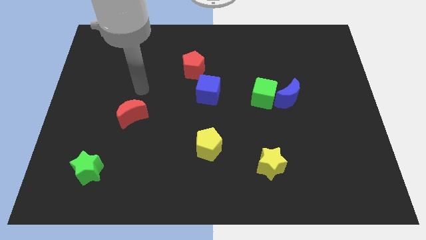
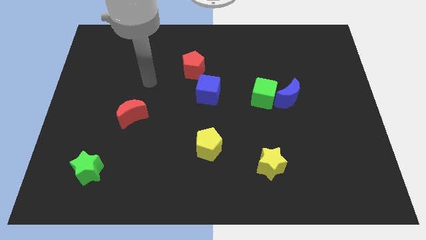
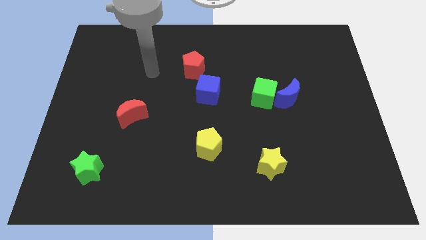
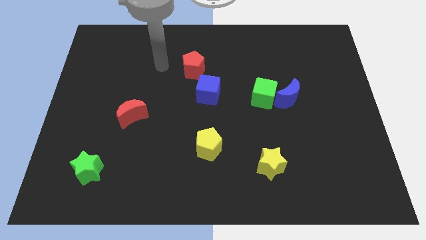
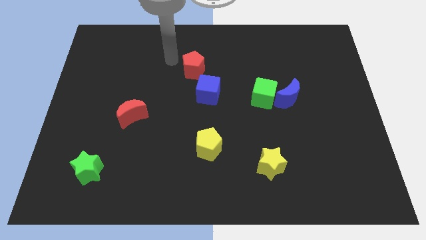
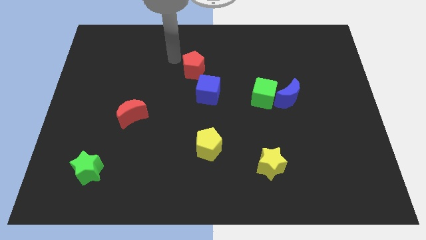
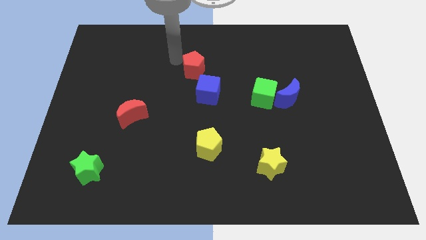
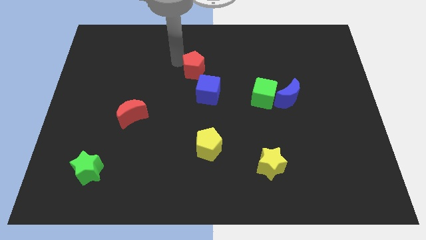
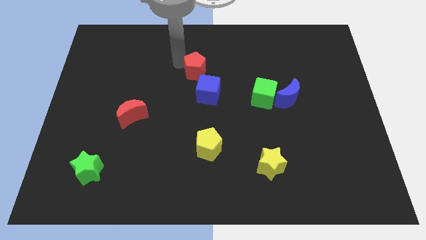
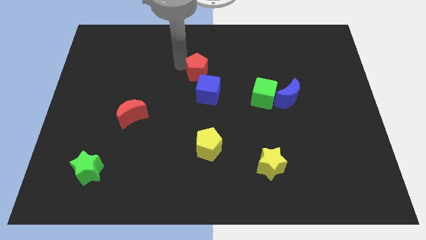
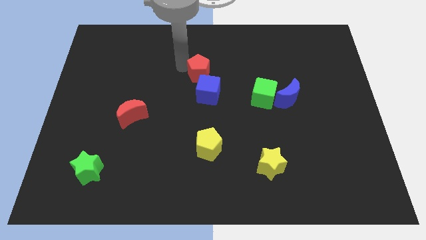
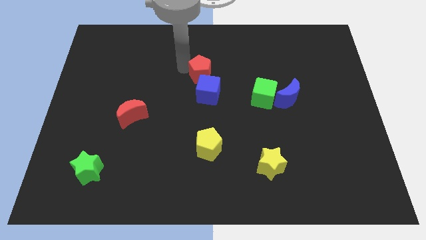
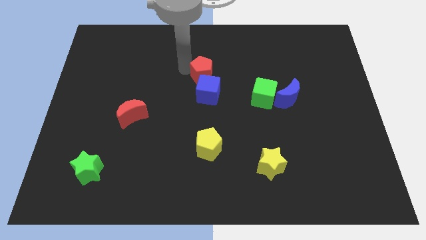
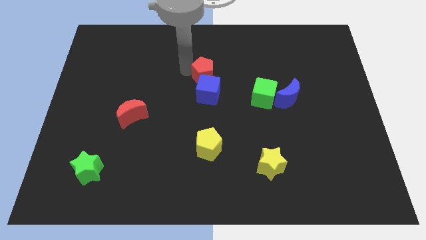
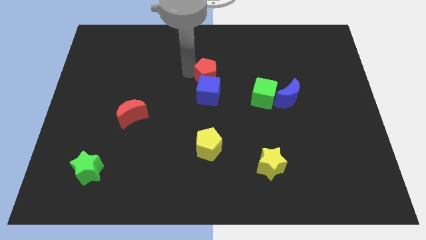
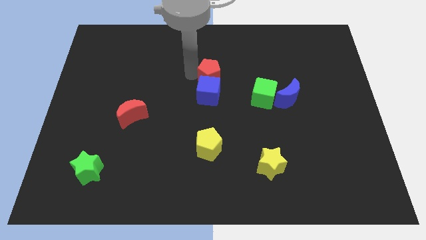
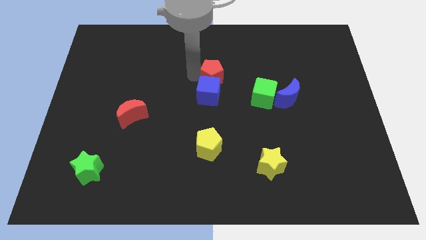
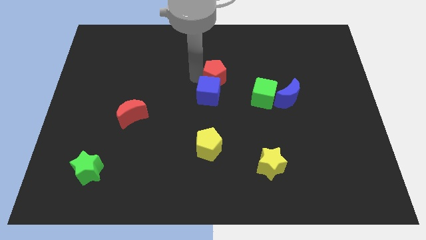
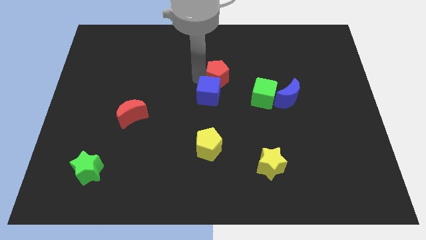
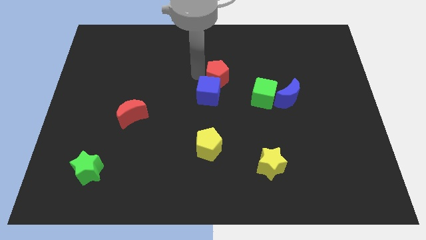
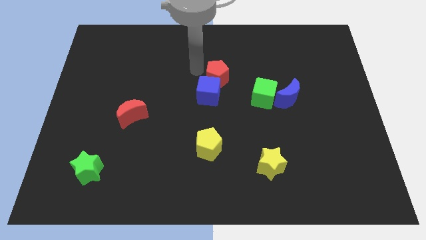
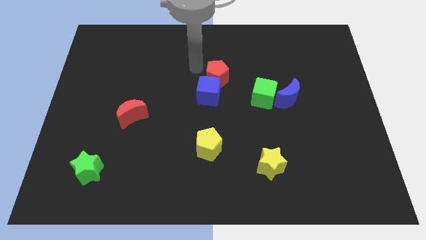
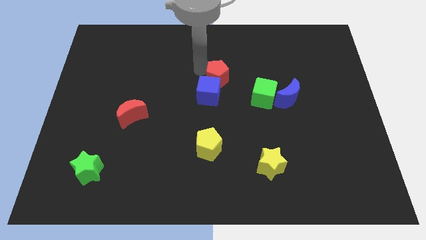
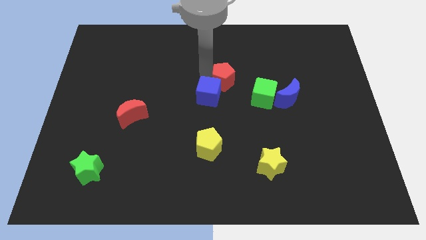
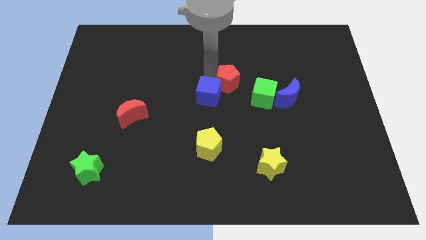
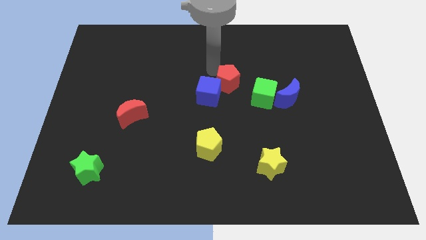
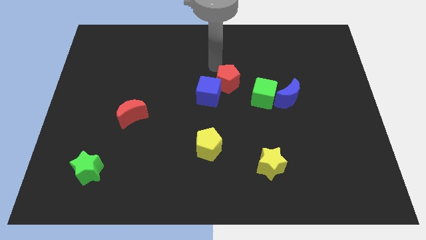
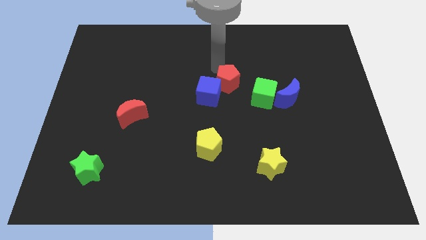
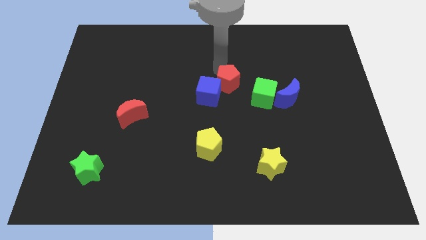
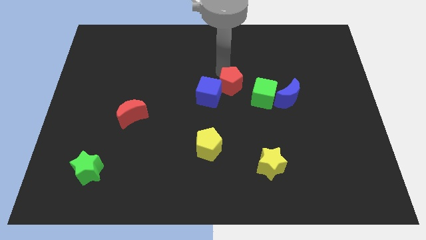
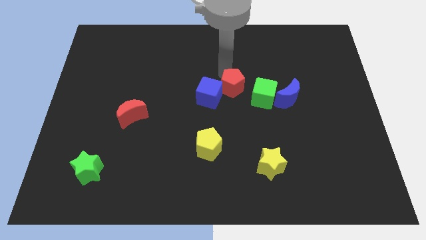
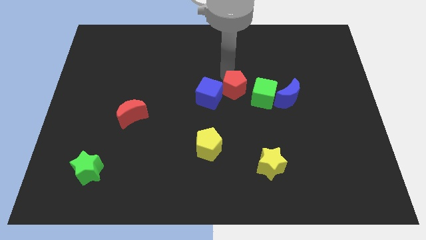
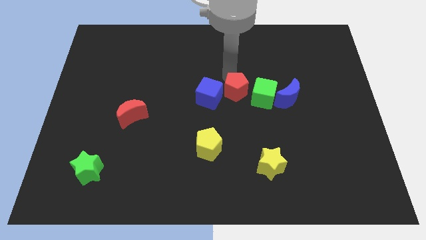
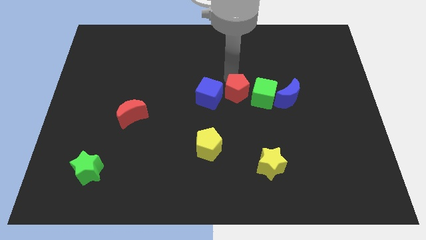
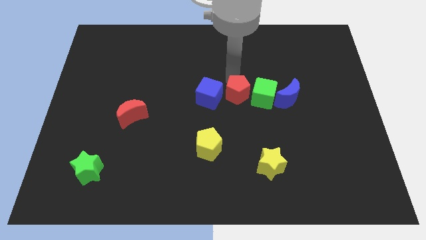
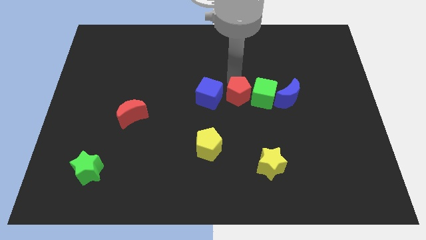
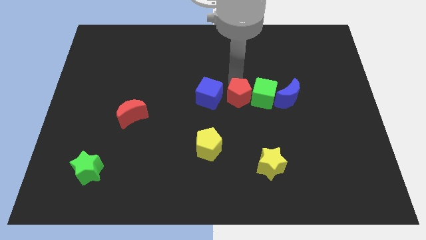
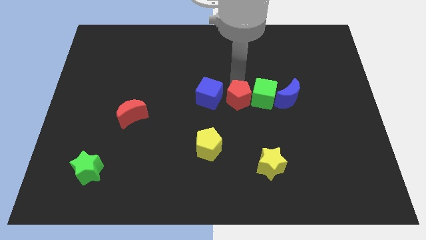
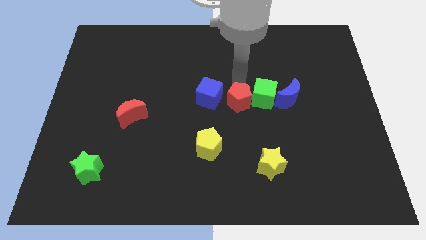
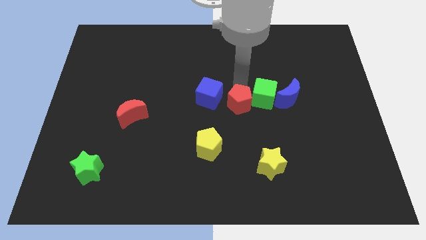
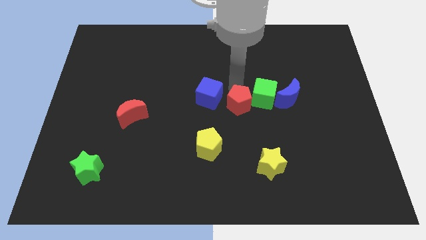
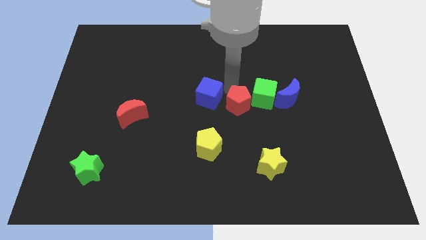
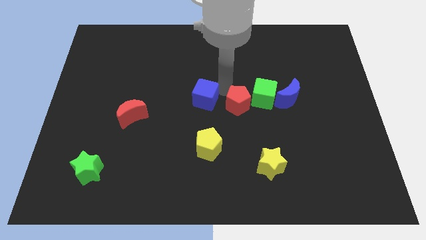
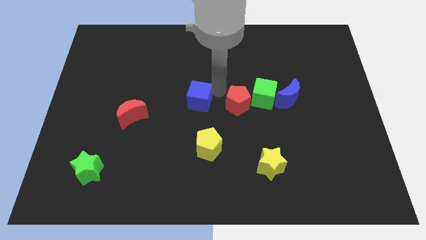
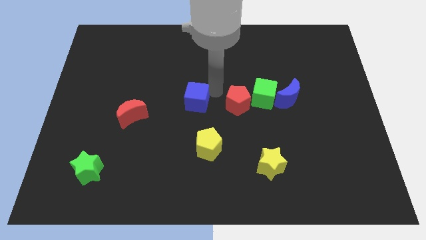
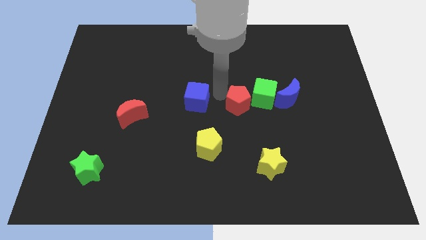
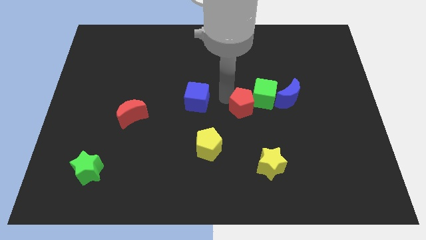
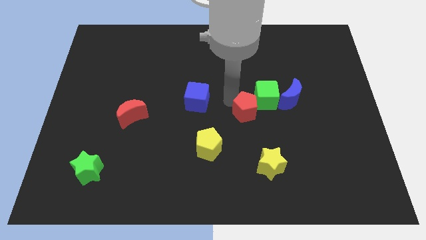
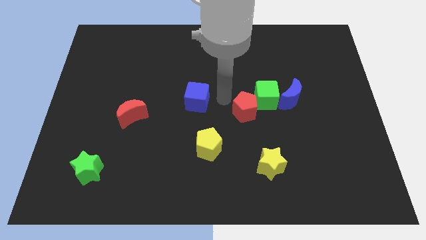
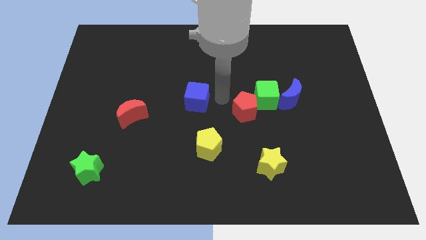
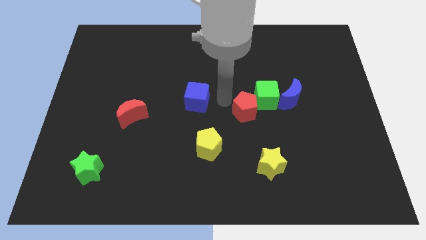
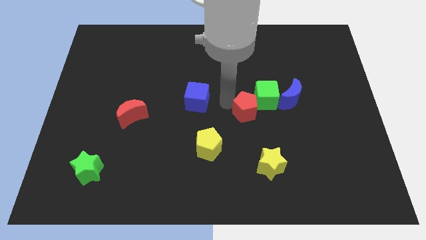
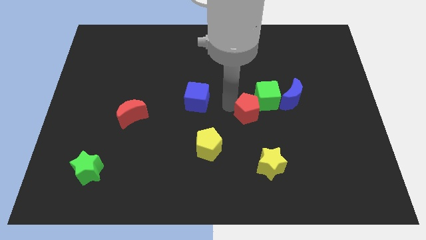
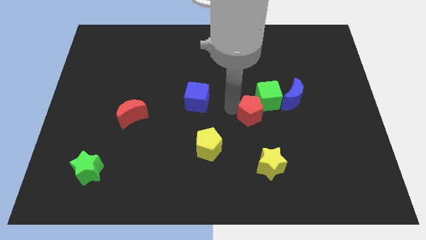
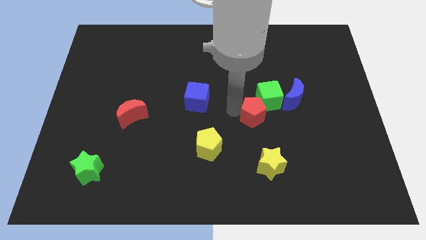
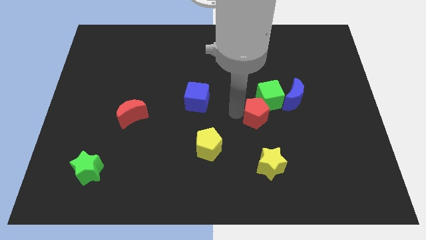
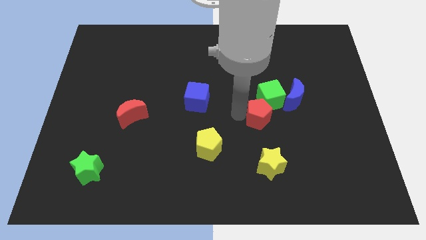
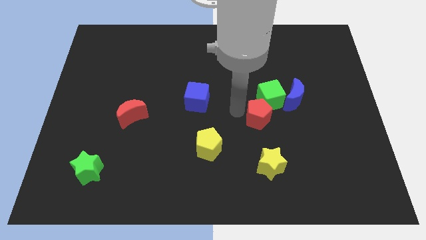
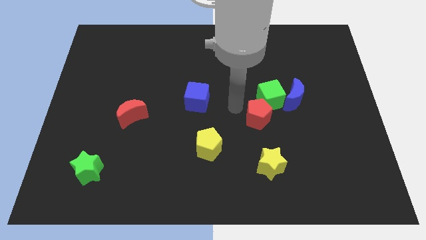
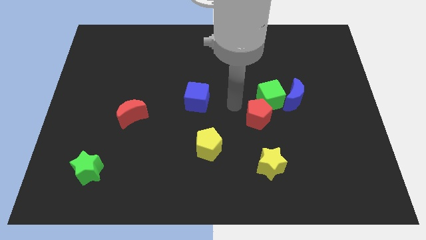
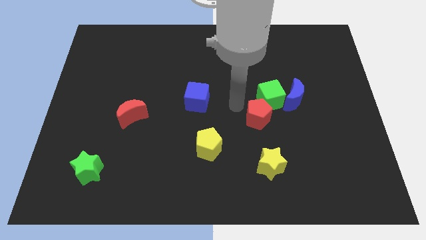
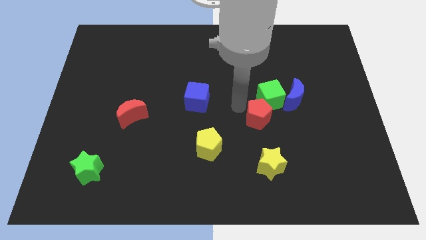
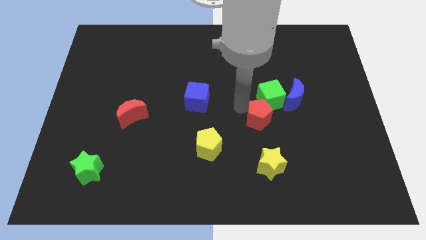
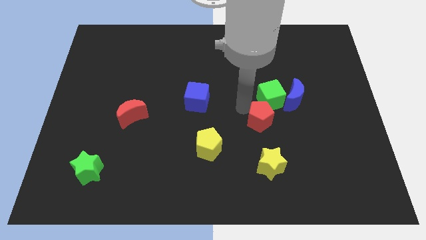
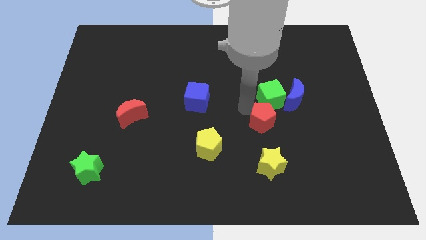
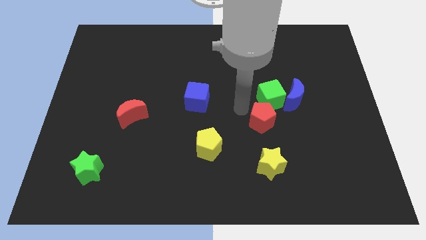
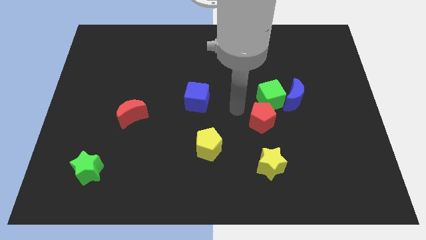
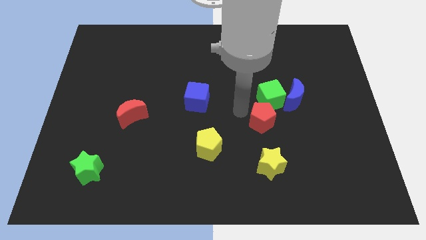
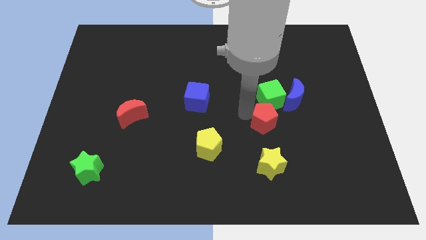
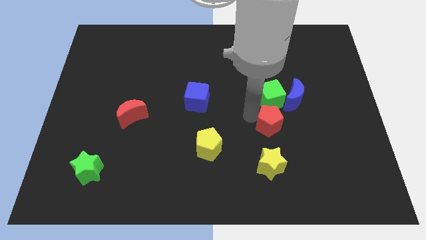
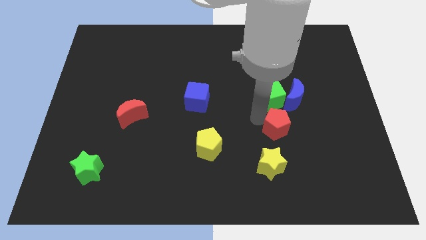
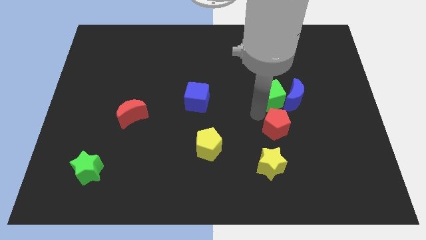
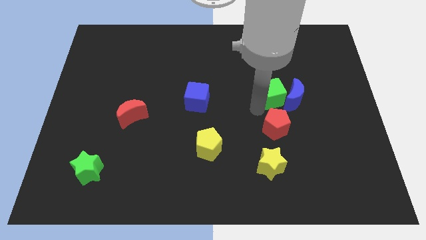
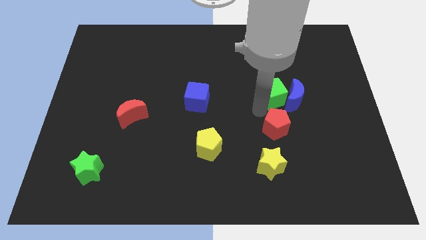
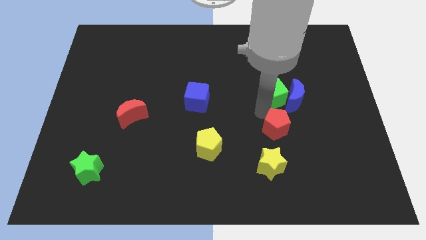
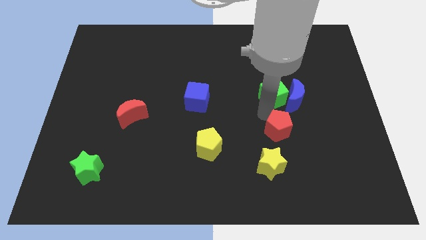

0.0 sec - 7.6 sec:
move the red pentagon to the top right side of the yellow star
